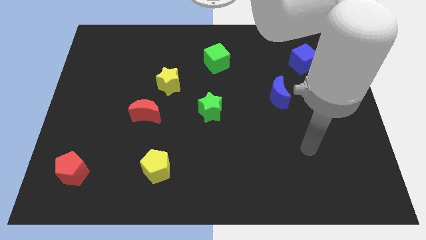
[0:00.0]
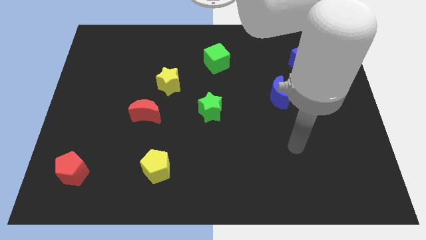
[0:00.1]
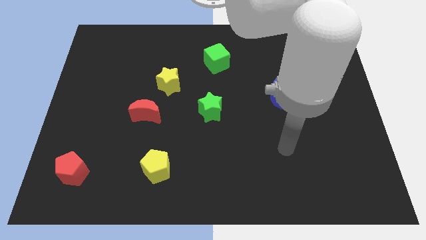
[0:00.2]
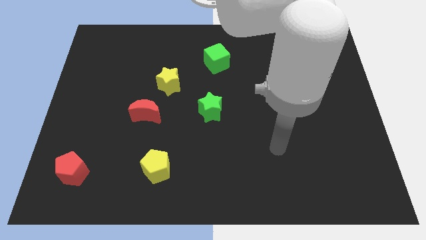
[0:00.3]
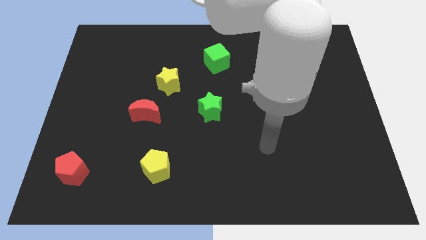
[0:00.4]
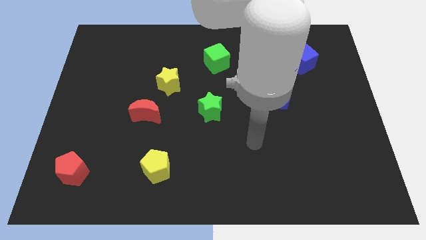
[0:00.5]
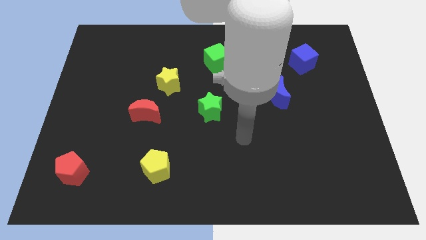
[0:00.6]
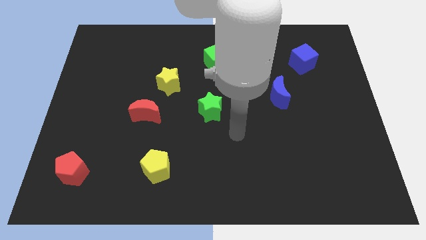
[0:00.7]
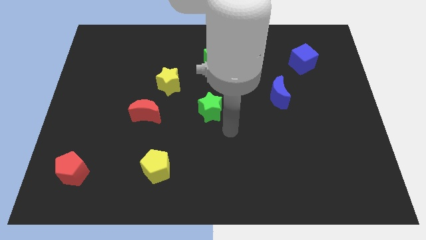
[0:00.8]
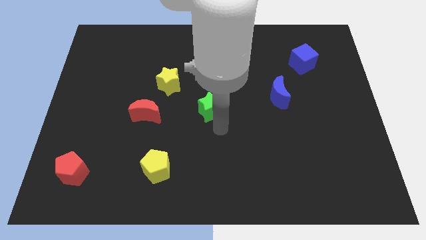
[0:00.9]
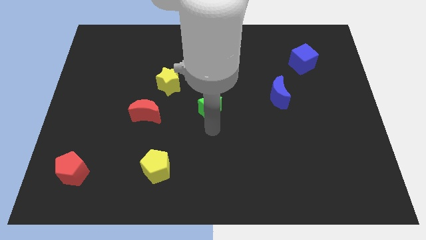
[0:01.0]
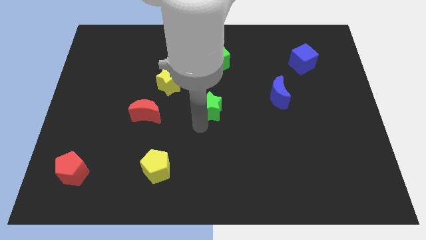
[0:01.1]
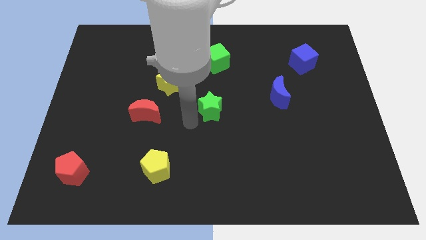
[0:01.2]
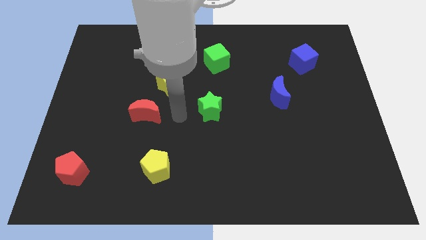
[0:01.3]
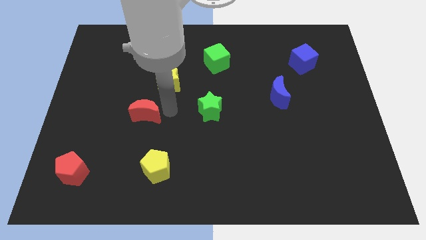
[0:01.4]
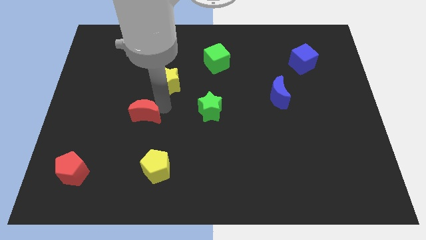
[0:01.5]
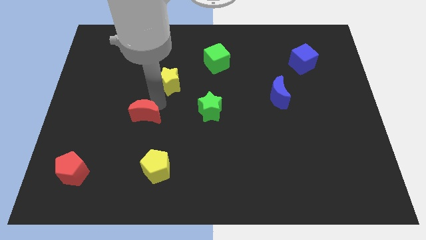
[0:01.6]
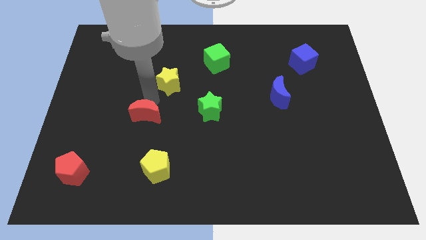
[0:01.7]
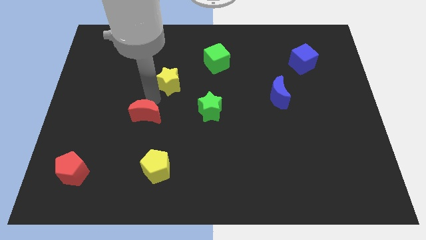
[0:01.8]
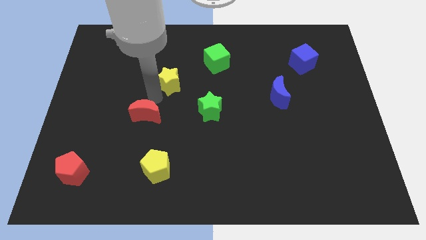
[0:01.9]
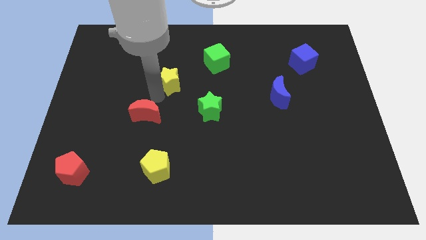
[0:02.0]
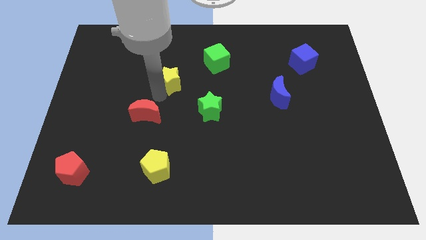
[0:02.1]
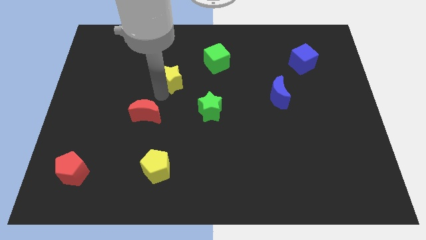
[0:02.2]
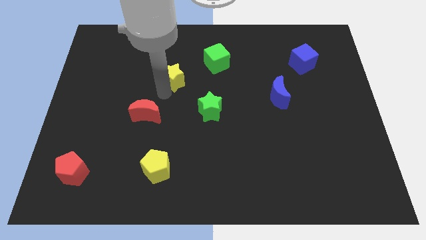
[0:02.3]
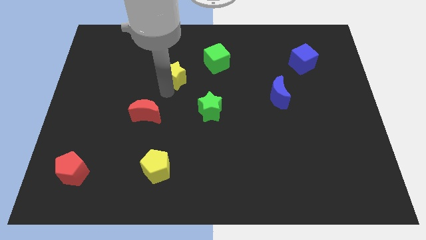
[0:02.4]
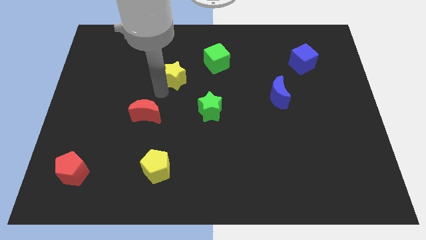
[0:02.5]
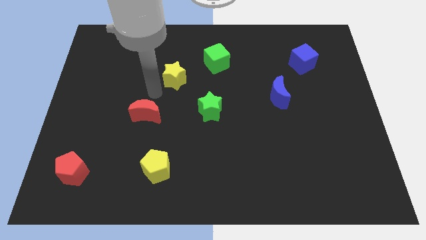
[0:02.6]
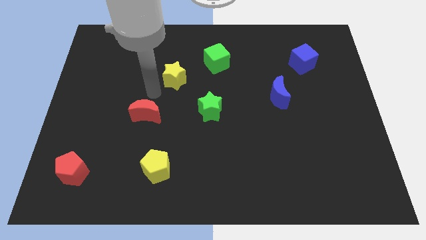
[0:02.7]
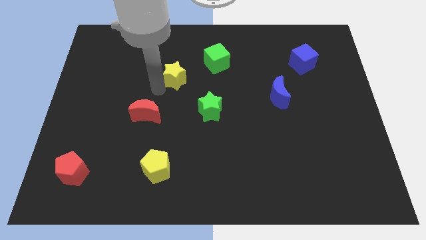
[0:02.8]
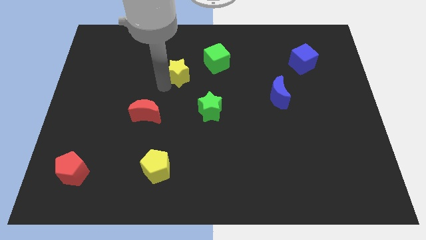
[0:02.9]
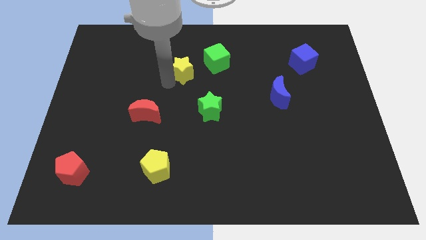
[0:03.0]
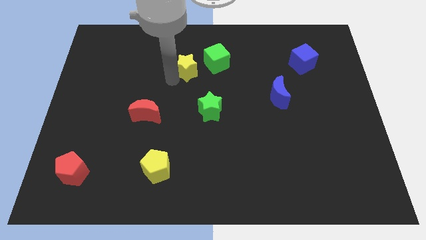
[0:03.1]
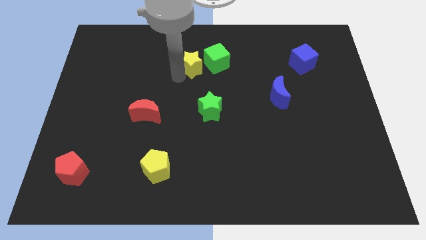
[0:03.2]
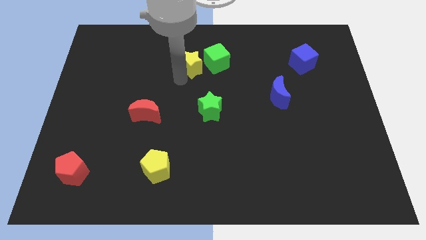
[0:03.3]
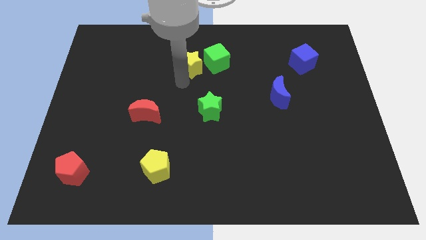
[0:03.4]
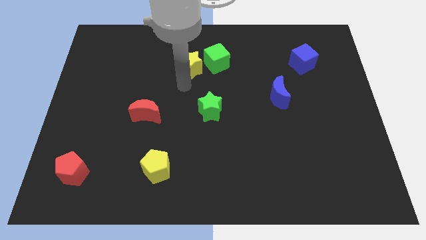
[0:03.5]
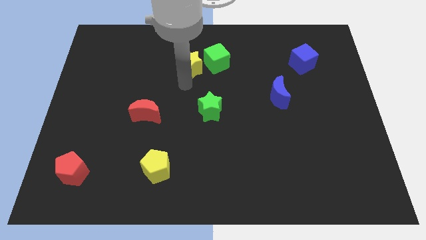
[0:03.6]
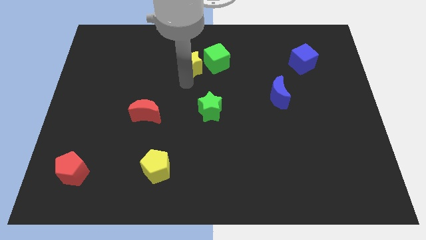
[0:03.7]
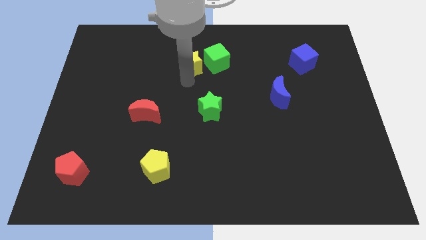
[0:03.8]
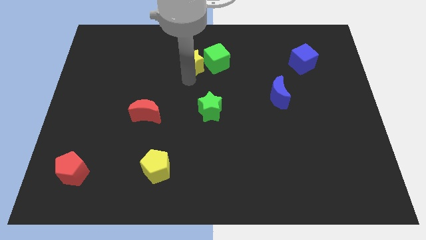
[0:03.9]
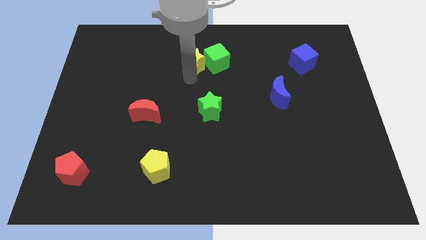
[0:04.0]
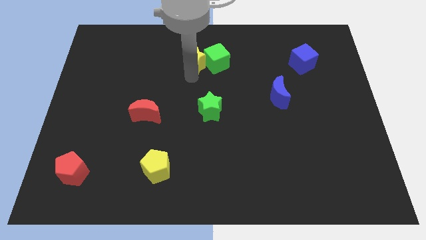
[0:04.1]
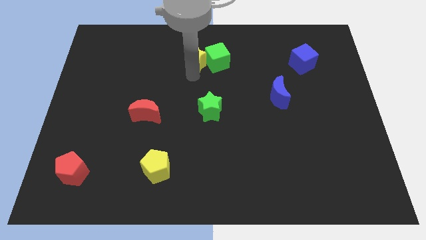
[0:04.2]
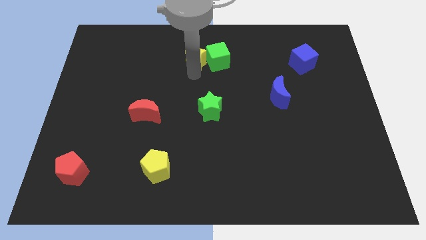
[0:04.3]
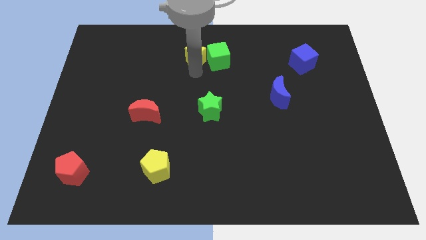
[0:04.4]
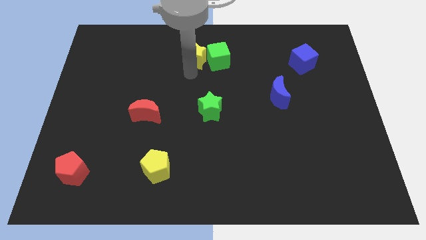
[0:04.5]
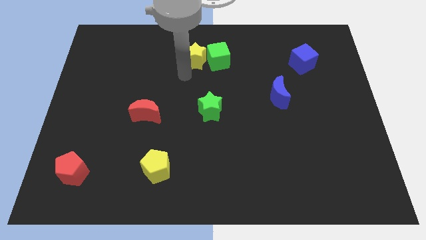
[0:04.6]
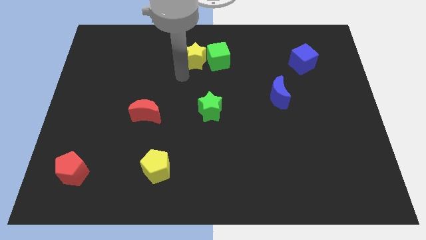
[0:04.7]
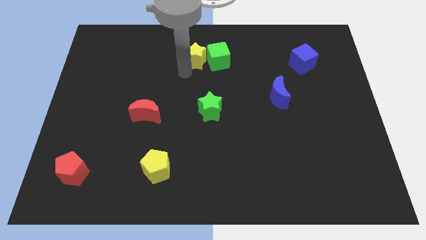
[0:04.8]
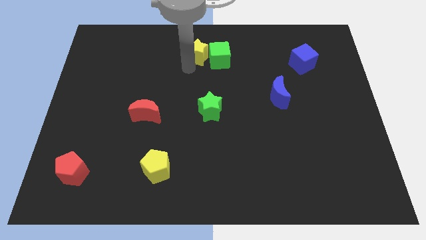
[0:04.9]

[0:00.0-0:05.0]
push the yellow star to the towards your base

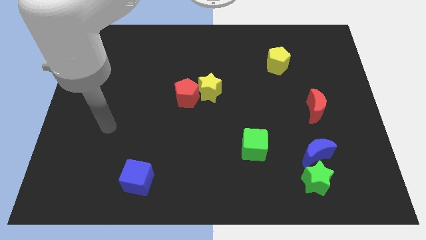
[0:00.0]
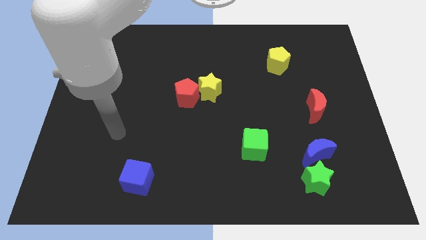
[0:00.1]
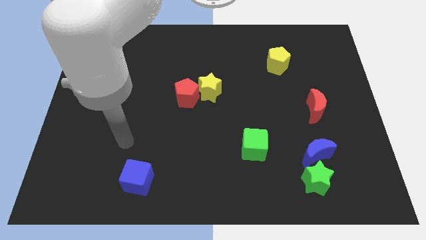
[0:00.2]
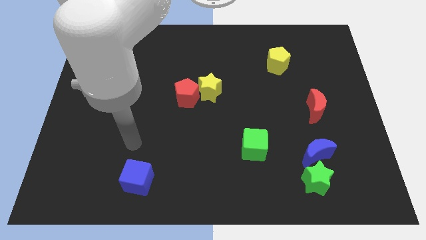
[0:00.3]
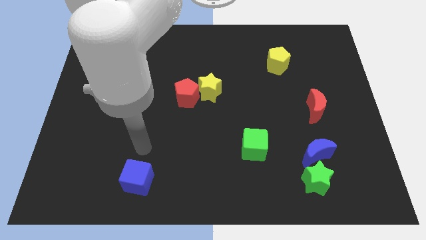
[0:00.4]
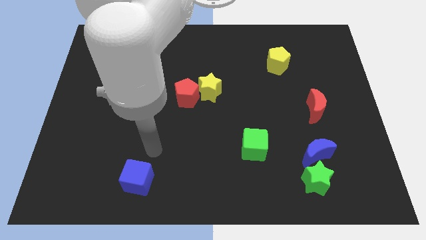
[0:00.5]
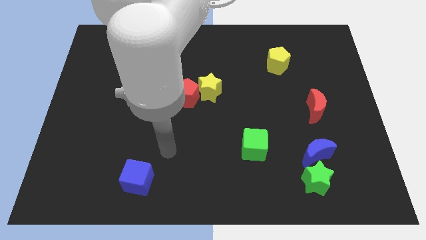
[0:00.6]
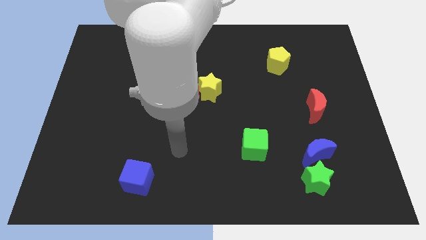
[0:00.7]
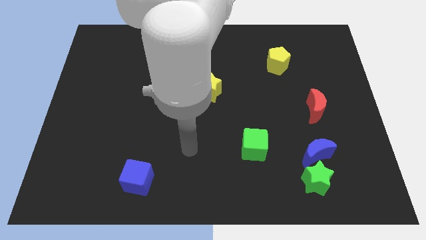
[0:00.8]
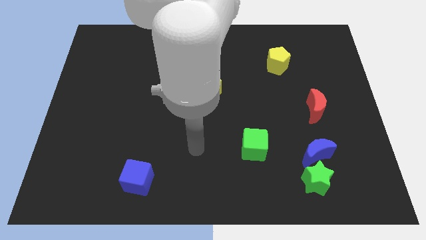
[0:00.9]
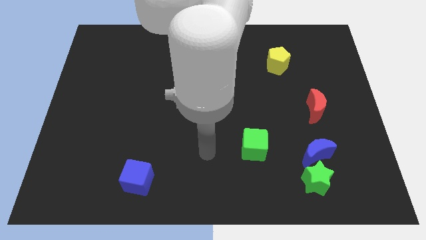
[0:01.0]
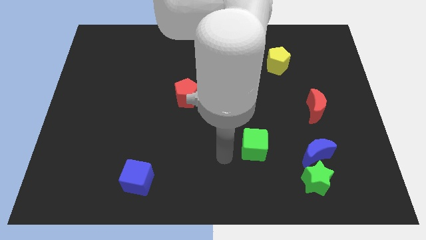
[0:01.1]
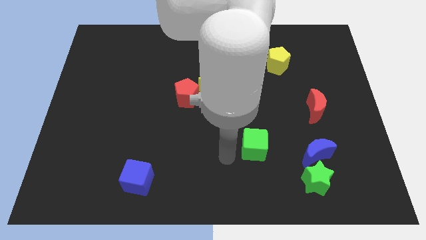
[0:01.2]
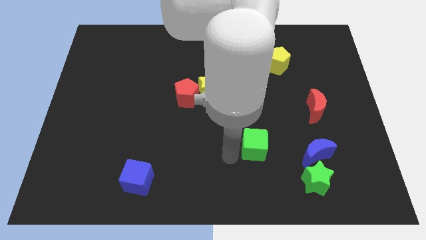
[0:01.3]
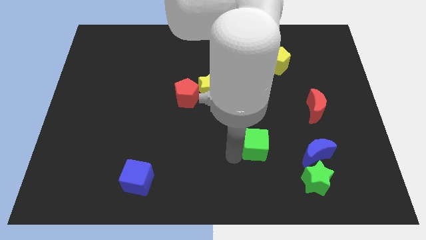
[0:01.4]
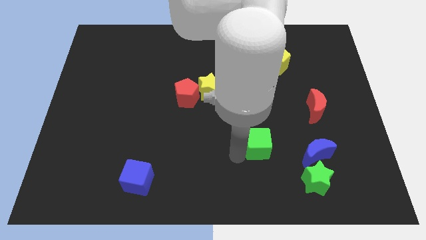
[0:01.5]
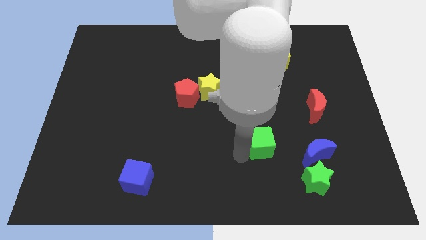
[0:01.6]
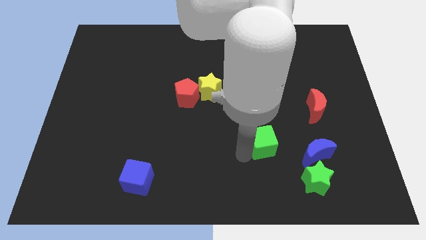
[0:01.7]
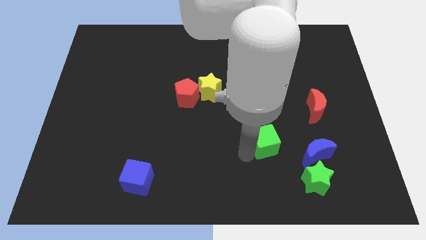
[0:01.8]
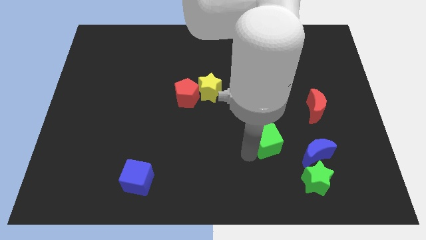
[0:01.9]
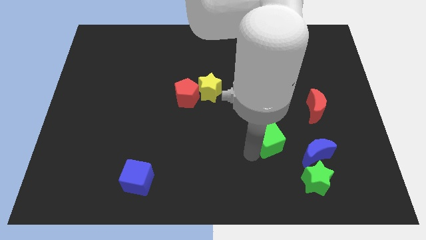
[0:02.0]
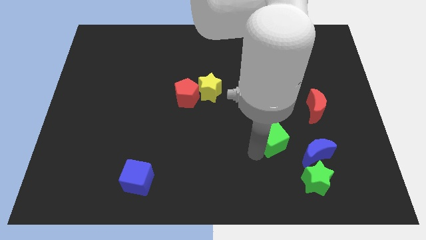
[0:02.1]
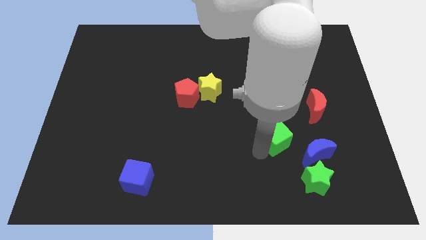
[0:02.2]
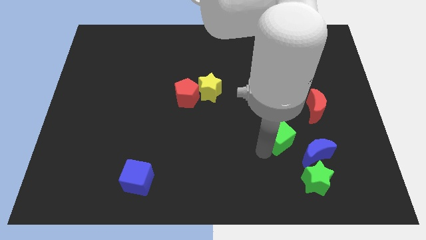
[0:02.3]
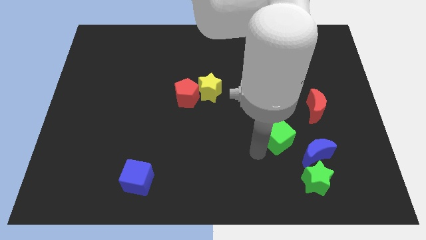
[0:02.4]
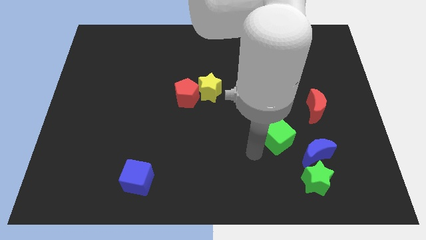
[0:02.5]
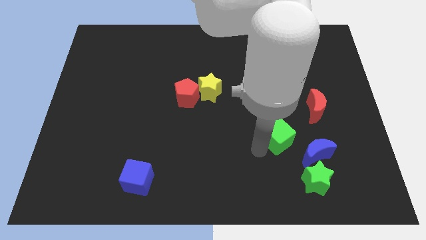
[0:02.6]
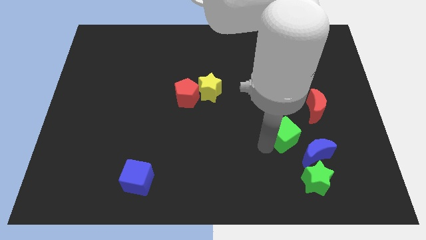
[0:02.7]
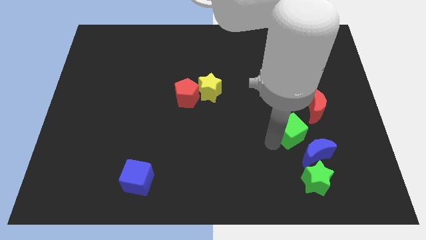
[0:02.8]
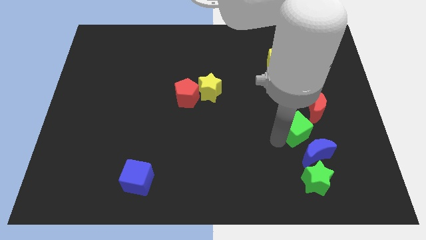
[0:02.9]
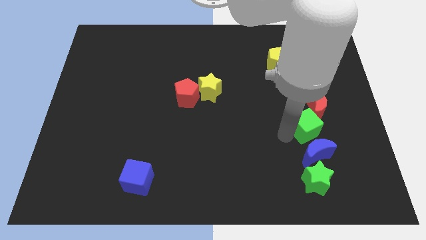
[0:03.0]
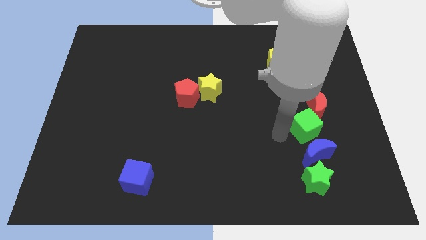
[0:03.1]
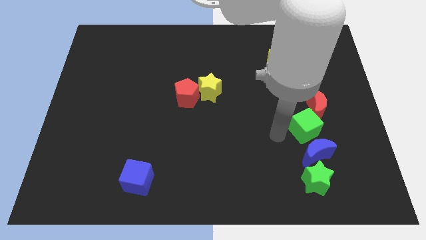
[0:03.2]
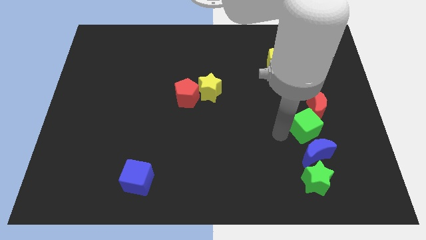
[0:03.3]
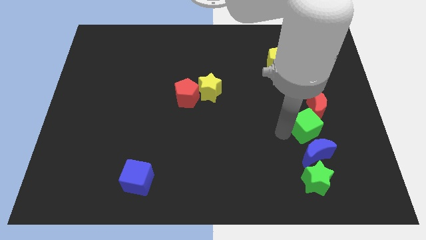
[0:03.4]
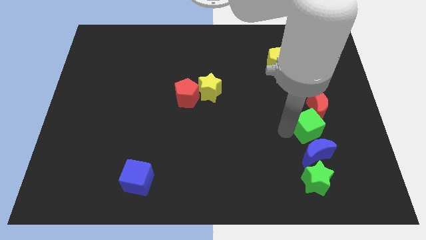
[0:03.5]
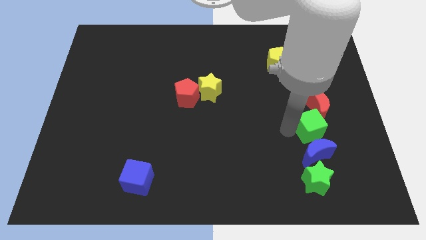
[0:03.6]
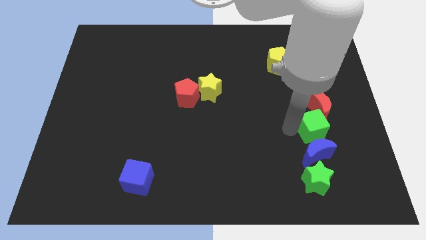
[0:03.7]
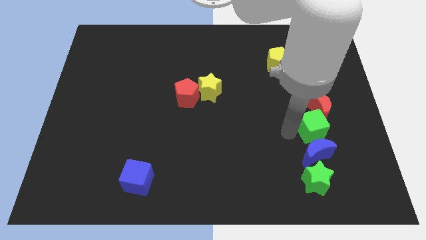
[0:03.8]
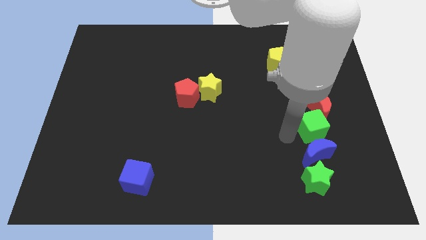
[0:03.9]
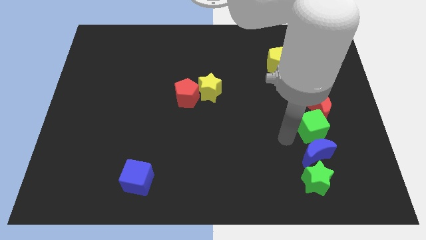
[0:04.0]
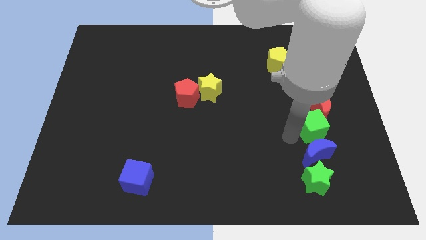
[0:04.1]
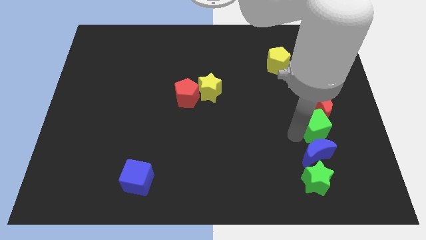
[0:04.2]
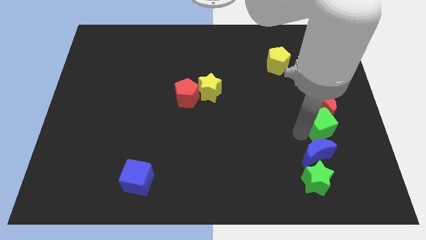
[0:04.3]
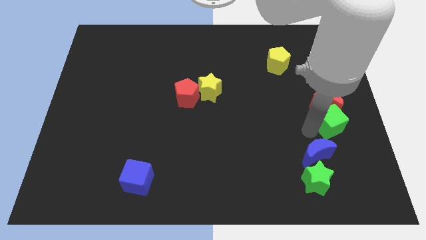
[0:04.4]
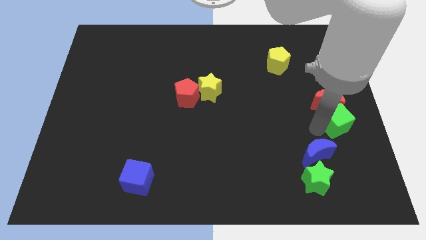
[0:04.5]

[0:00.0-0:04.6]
put the green cube to the right side of the board
